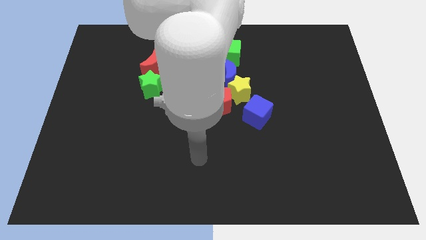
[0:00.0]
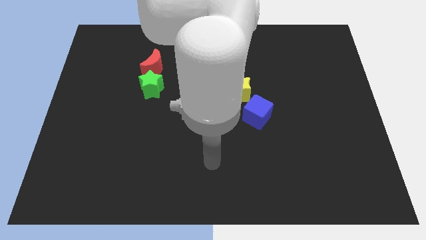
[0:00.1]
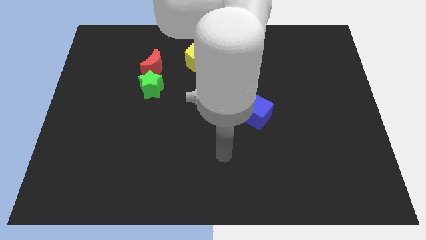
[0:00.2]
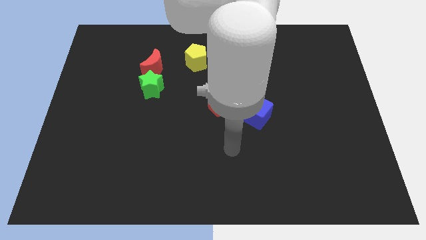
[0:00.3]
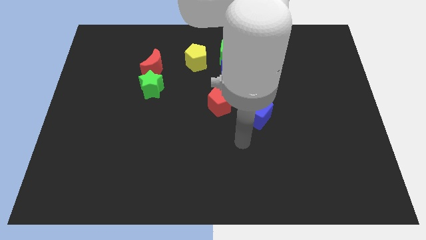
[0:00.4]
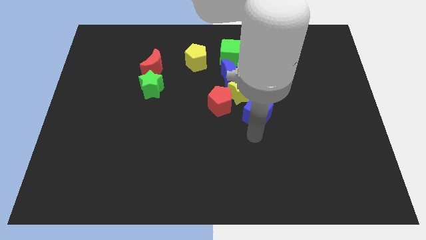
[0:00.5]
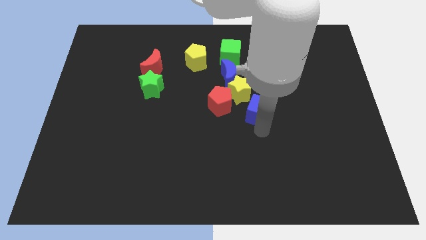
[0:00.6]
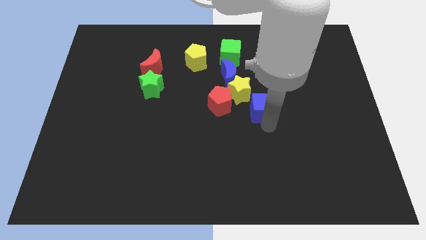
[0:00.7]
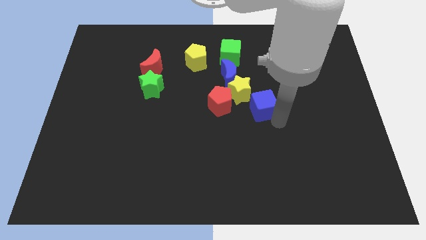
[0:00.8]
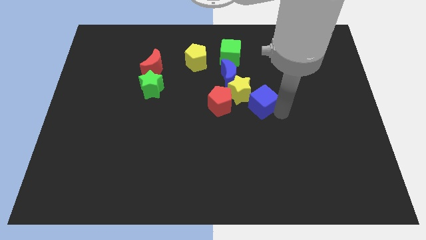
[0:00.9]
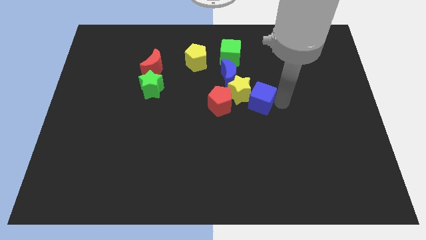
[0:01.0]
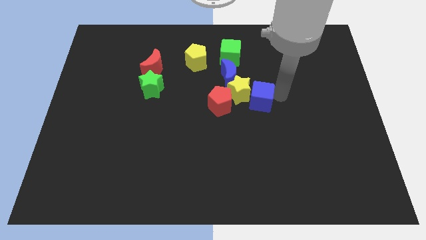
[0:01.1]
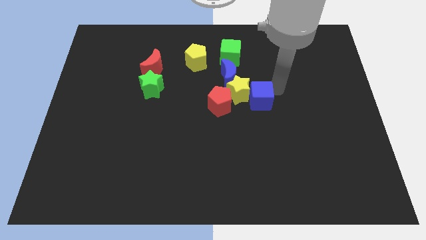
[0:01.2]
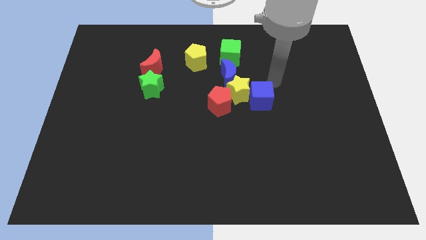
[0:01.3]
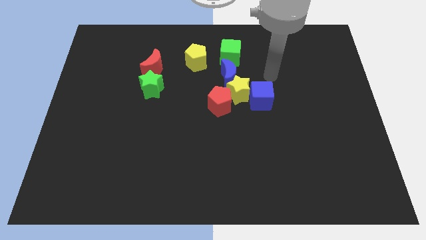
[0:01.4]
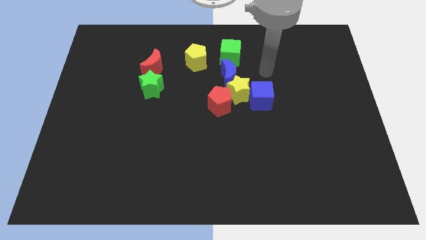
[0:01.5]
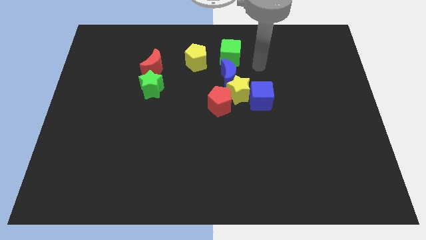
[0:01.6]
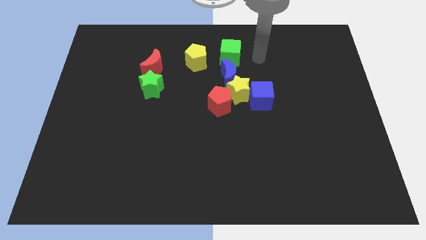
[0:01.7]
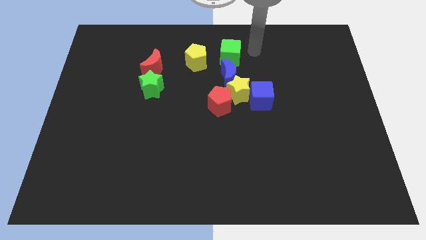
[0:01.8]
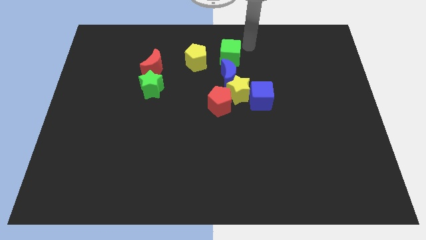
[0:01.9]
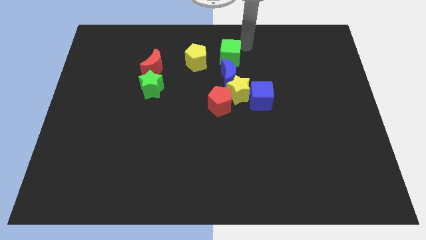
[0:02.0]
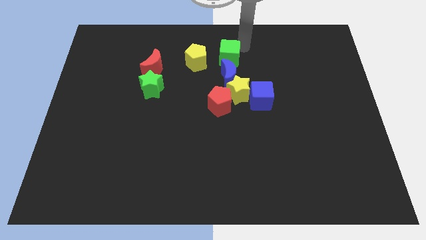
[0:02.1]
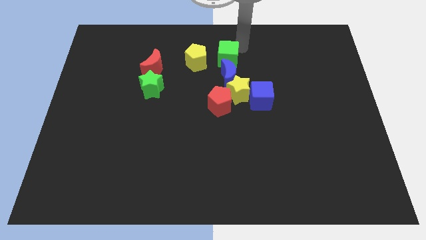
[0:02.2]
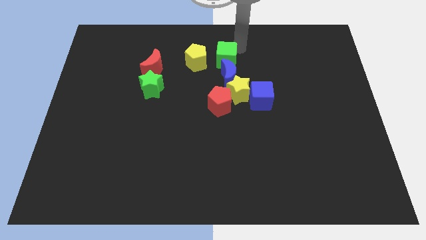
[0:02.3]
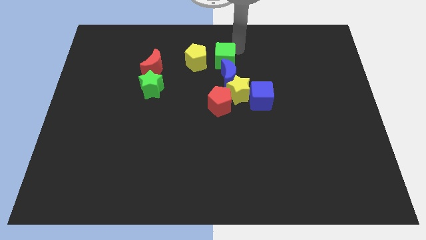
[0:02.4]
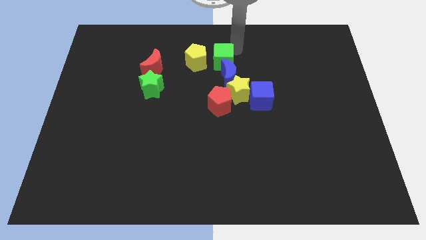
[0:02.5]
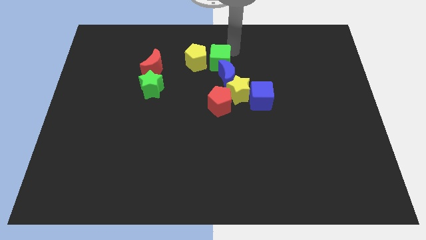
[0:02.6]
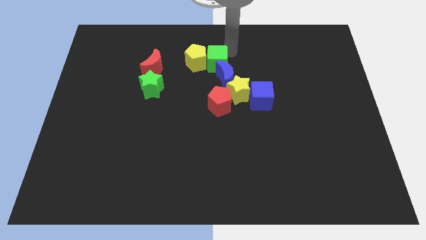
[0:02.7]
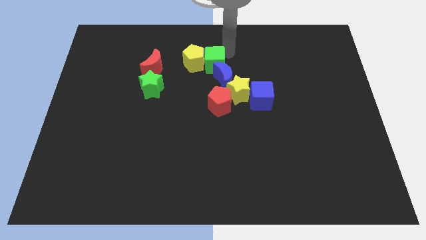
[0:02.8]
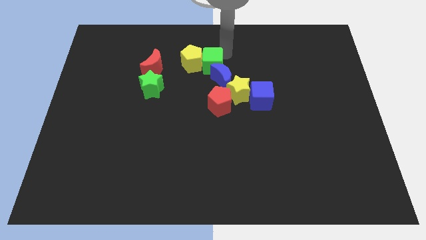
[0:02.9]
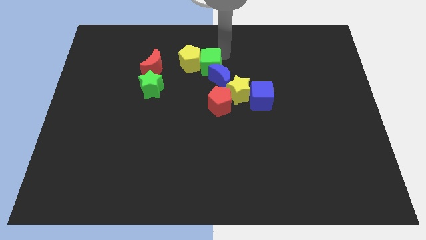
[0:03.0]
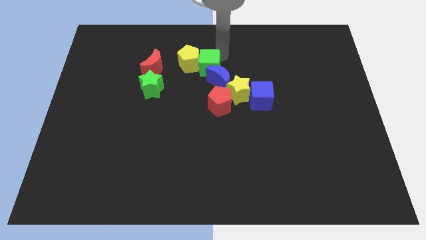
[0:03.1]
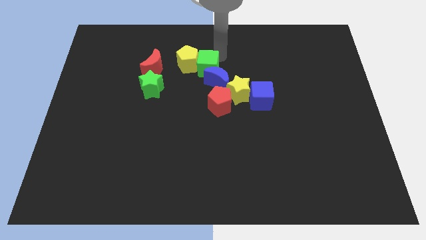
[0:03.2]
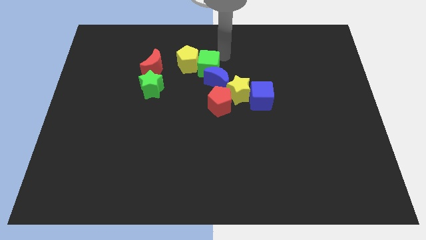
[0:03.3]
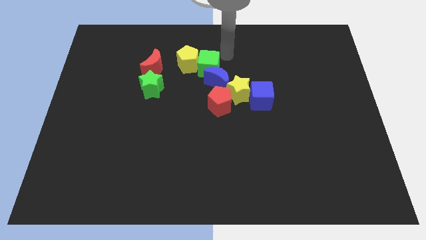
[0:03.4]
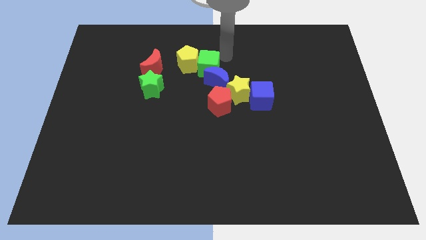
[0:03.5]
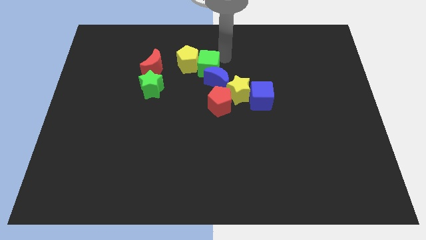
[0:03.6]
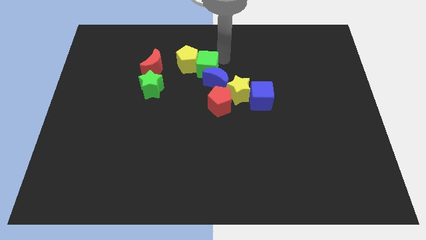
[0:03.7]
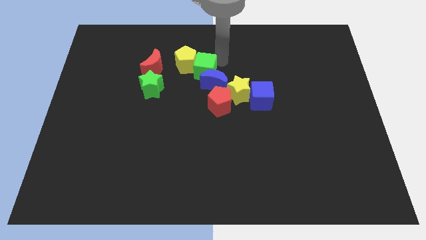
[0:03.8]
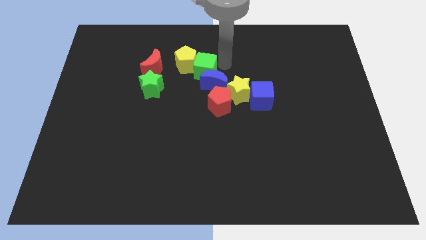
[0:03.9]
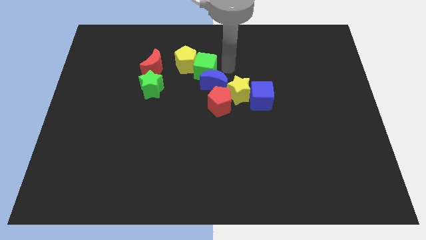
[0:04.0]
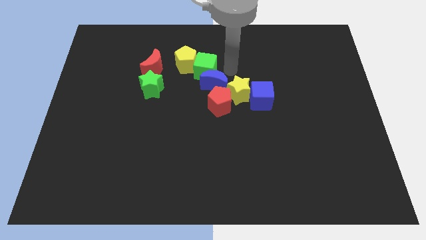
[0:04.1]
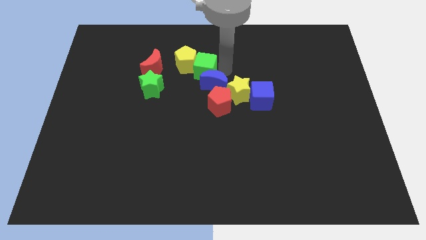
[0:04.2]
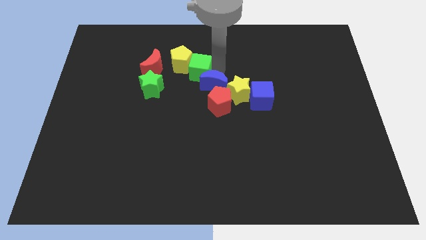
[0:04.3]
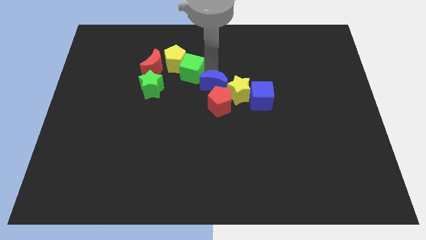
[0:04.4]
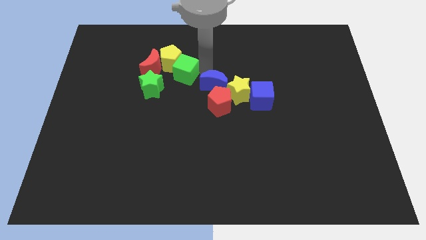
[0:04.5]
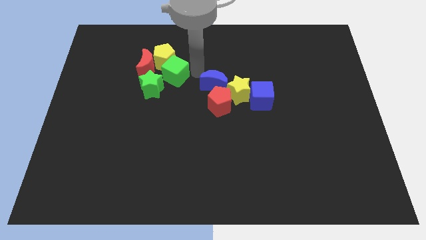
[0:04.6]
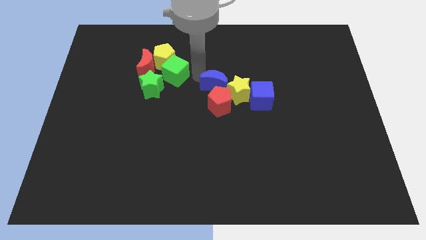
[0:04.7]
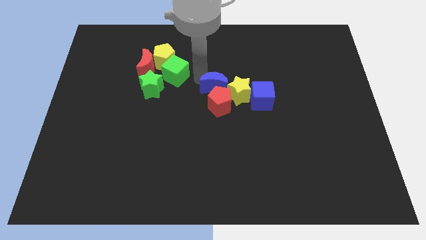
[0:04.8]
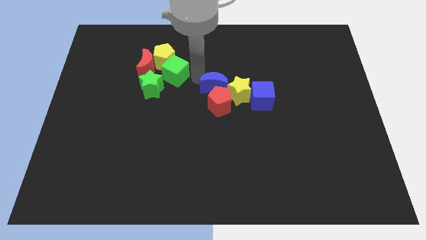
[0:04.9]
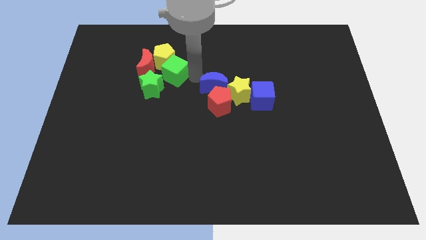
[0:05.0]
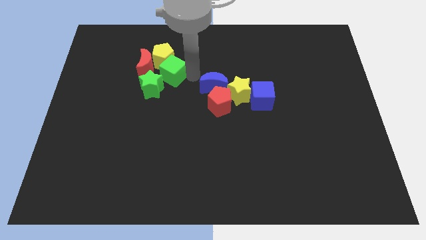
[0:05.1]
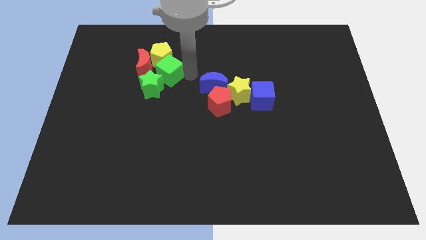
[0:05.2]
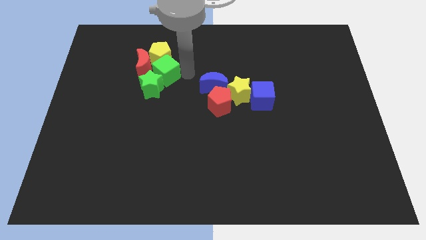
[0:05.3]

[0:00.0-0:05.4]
push the green cube to the red moon

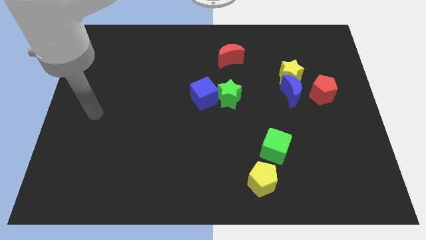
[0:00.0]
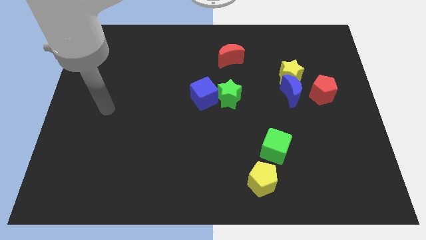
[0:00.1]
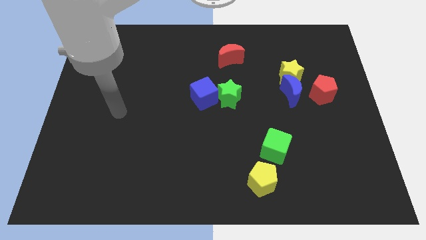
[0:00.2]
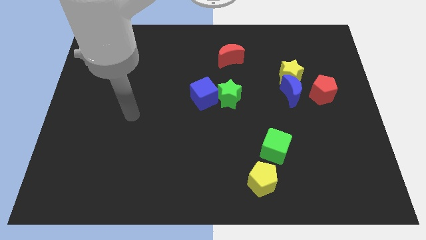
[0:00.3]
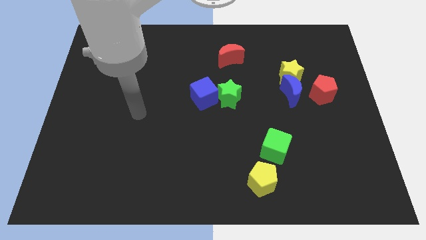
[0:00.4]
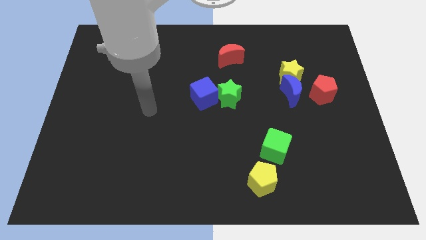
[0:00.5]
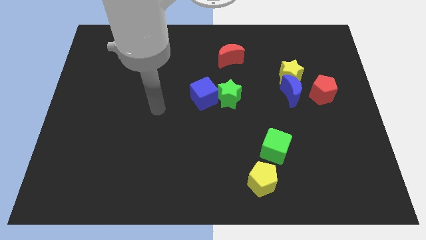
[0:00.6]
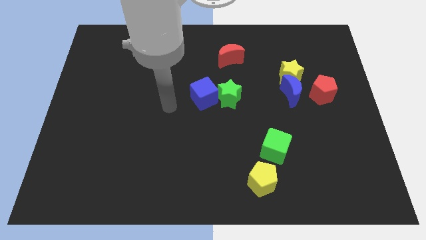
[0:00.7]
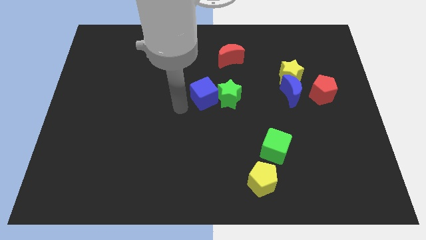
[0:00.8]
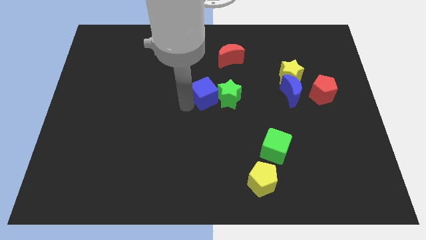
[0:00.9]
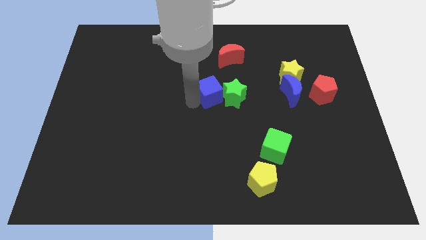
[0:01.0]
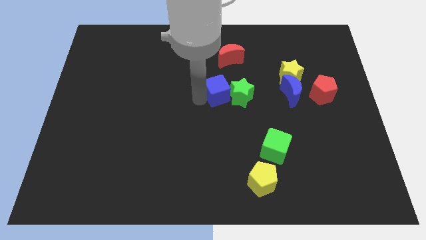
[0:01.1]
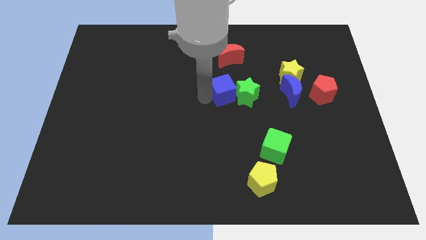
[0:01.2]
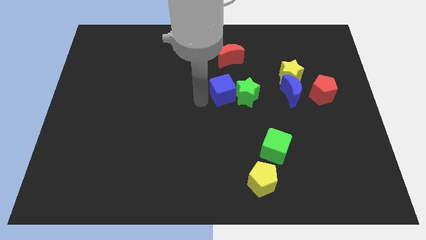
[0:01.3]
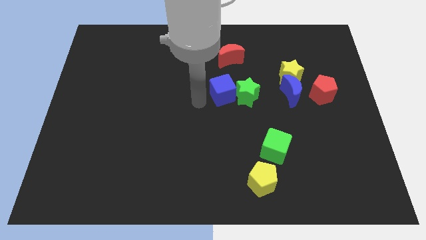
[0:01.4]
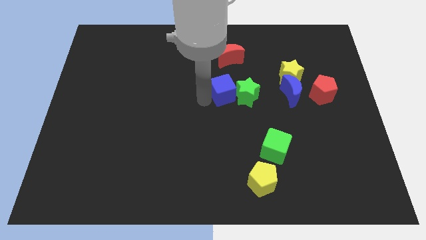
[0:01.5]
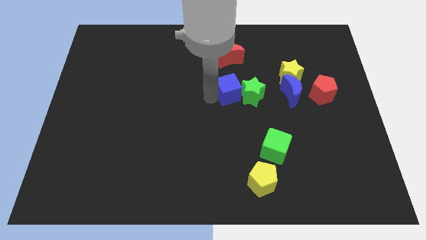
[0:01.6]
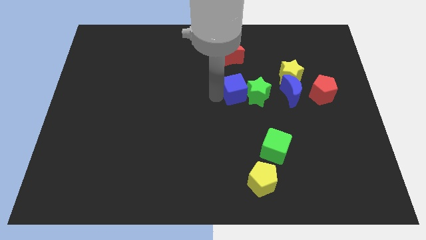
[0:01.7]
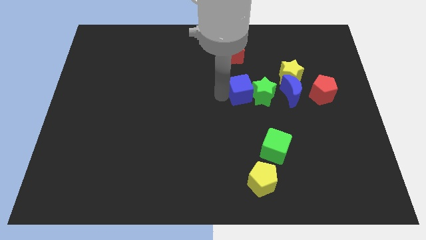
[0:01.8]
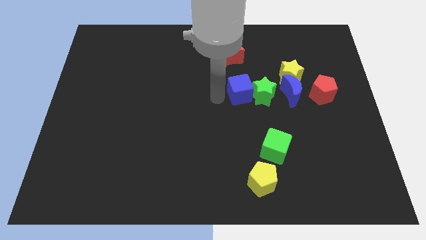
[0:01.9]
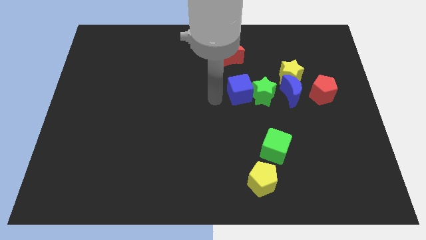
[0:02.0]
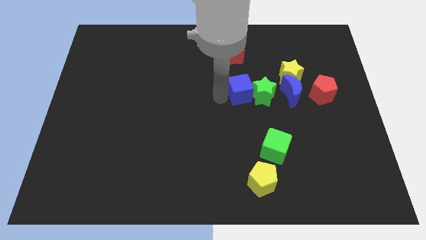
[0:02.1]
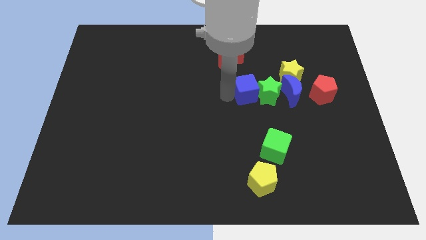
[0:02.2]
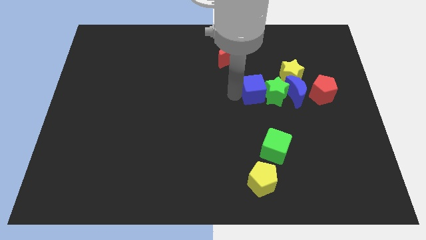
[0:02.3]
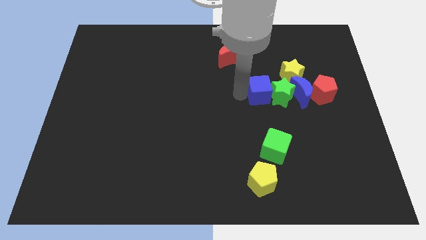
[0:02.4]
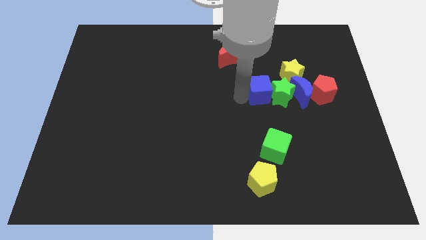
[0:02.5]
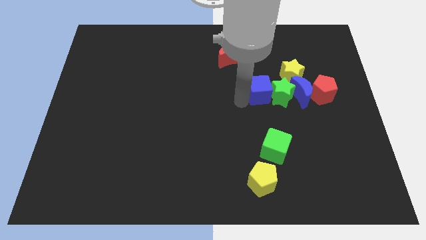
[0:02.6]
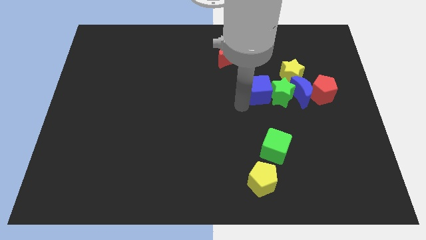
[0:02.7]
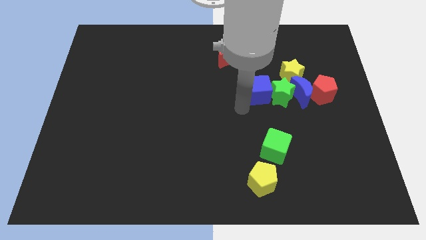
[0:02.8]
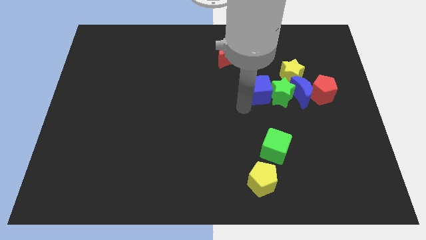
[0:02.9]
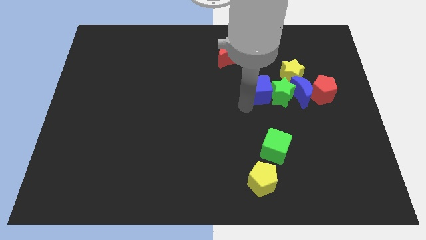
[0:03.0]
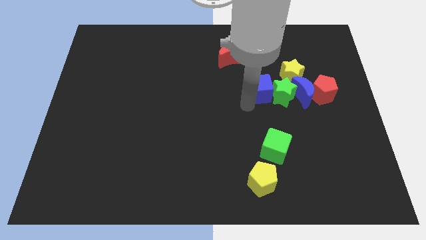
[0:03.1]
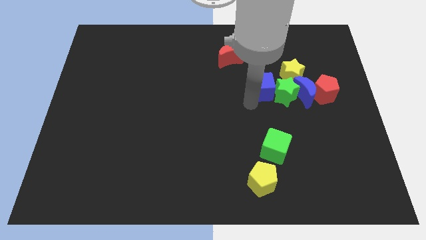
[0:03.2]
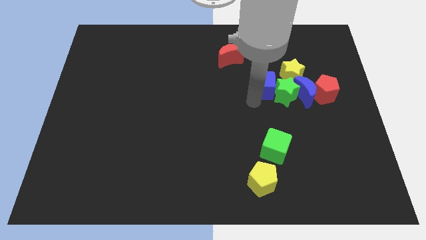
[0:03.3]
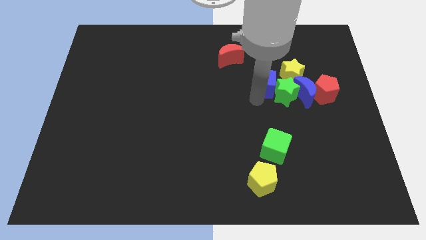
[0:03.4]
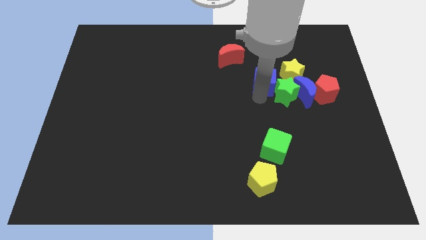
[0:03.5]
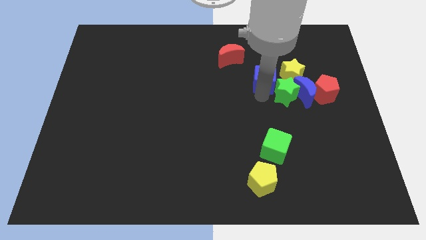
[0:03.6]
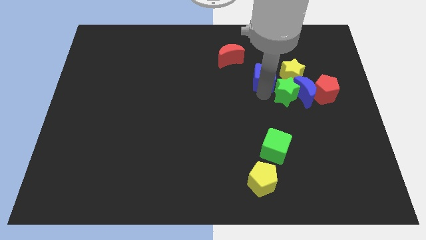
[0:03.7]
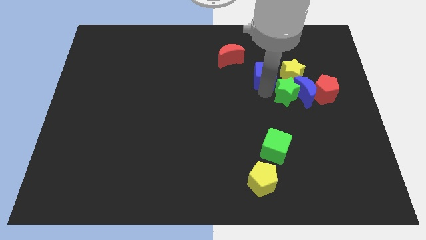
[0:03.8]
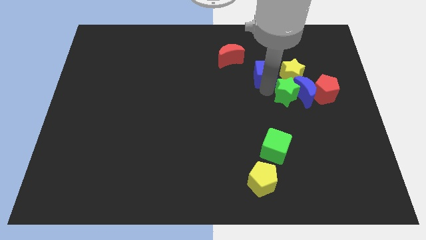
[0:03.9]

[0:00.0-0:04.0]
slide the blue cube next to the yellow star
